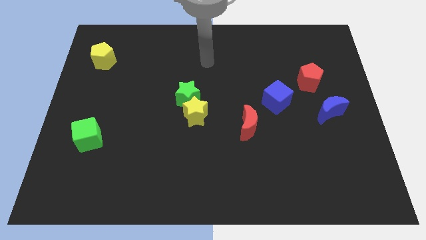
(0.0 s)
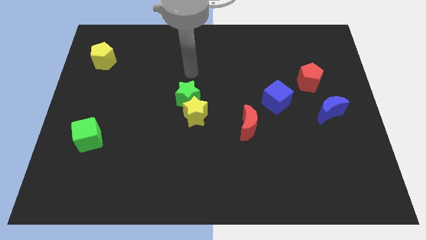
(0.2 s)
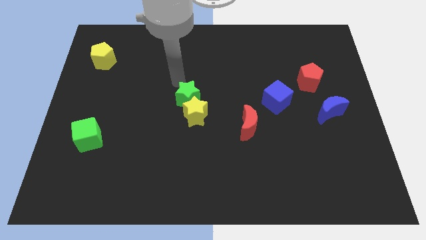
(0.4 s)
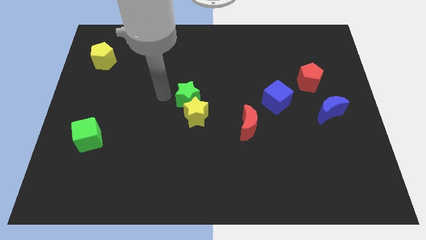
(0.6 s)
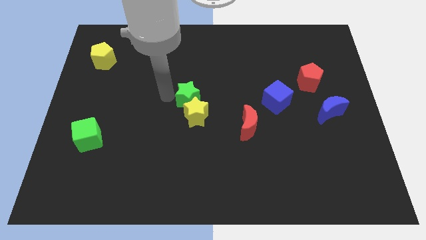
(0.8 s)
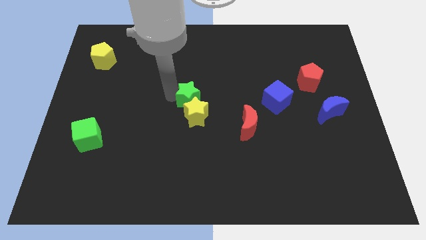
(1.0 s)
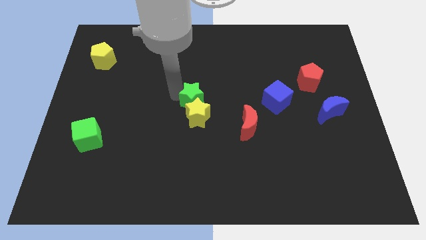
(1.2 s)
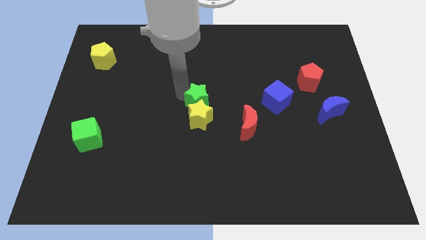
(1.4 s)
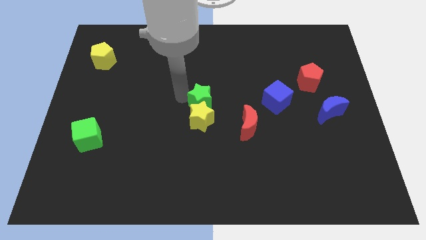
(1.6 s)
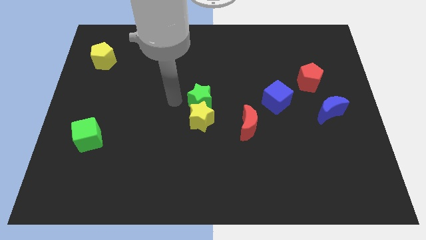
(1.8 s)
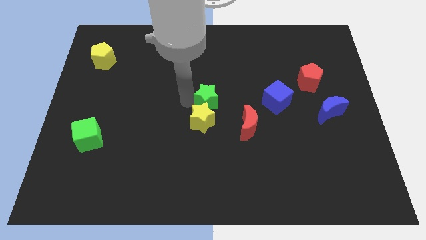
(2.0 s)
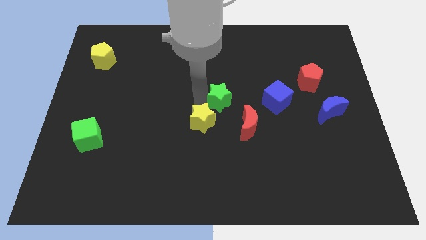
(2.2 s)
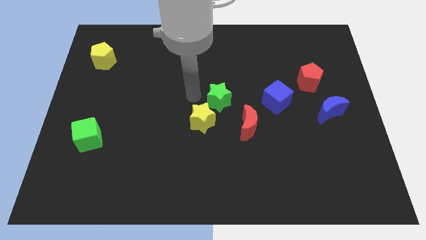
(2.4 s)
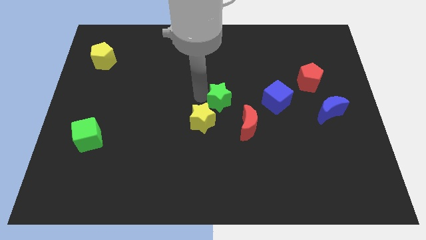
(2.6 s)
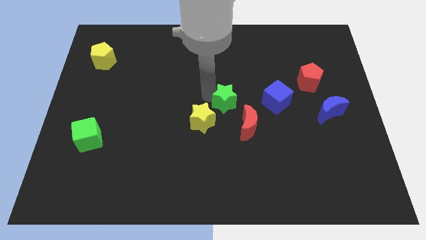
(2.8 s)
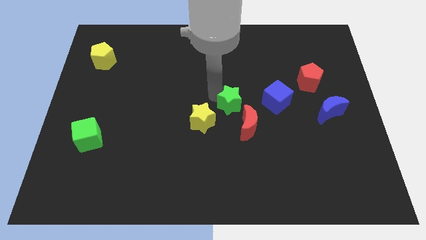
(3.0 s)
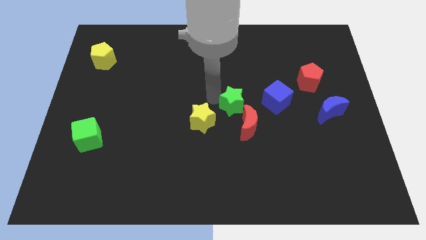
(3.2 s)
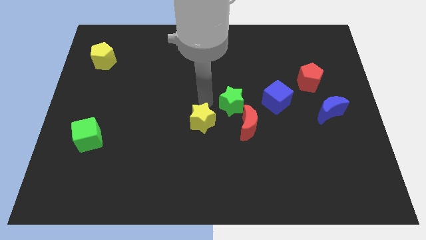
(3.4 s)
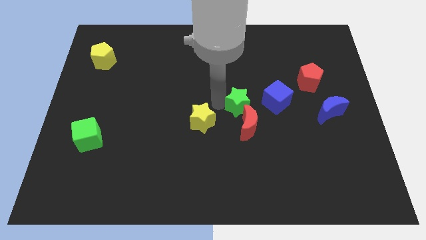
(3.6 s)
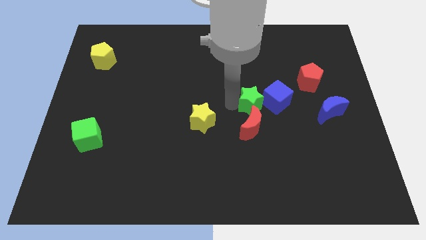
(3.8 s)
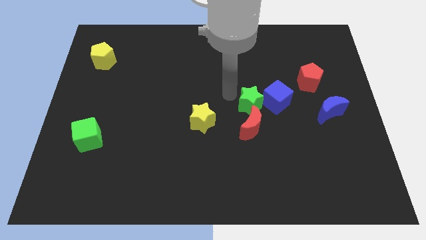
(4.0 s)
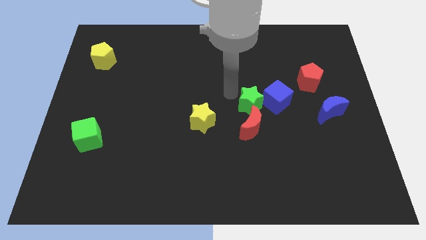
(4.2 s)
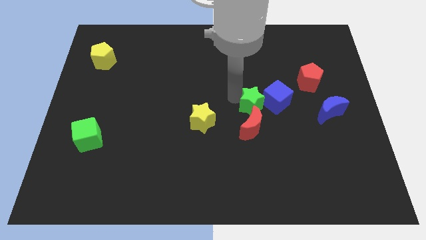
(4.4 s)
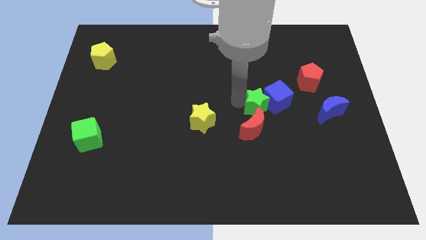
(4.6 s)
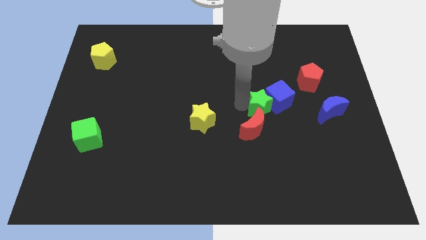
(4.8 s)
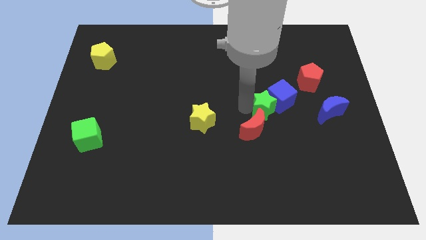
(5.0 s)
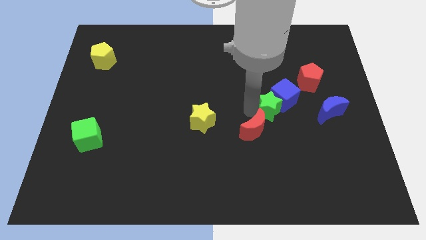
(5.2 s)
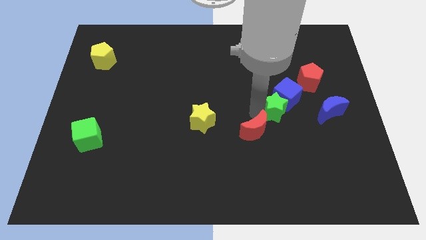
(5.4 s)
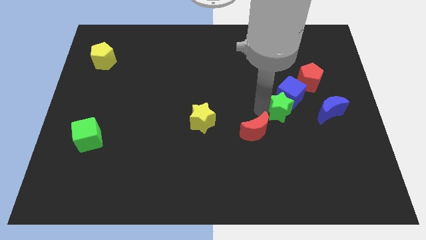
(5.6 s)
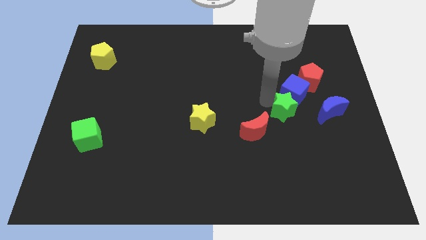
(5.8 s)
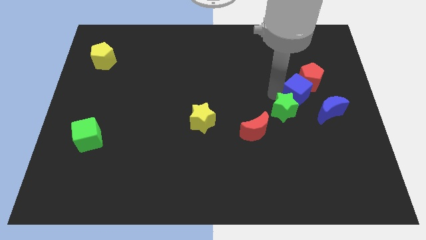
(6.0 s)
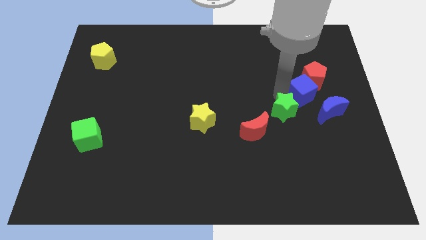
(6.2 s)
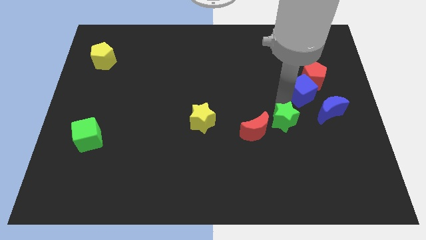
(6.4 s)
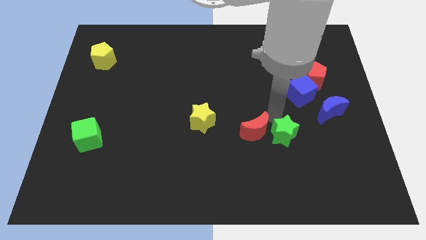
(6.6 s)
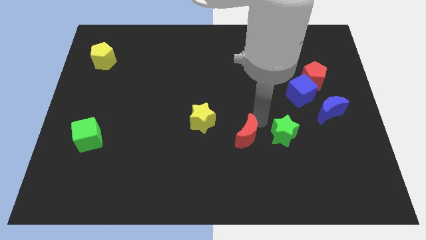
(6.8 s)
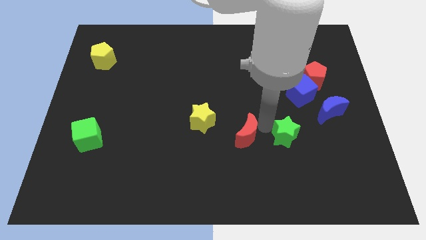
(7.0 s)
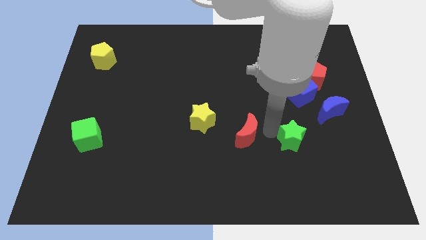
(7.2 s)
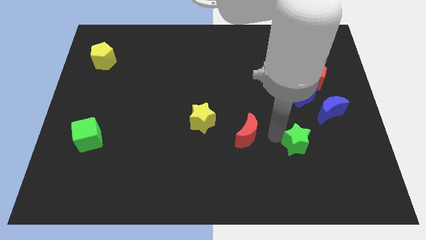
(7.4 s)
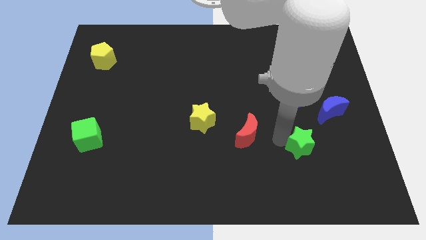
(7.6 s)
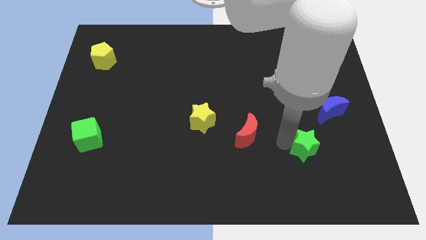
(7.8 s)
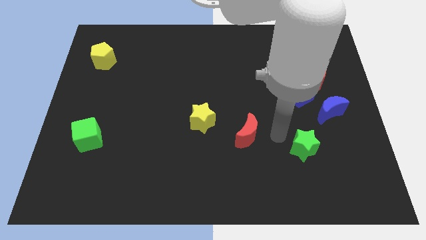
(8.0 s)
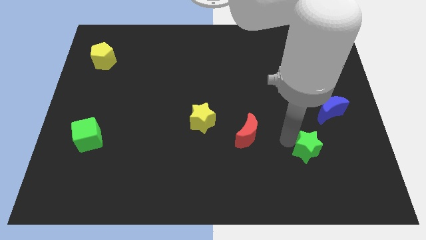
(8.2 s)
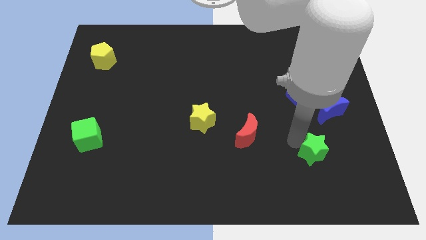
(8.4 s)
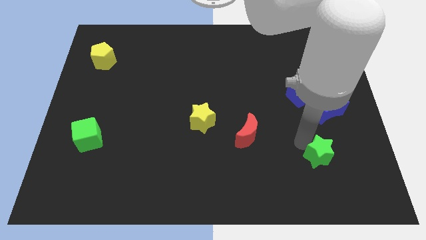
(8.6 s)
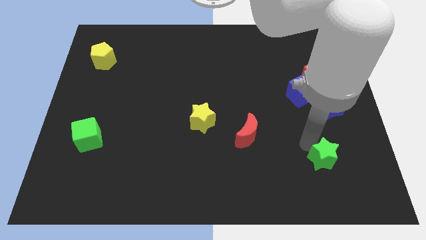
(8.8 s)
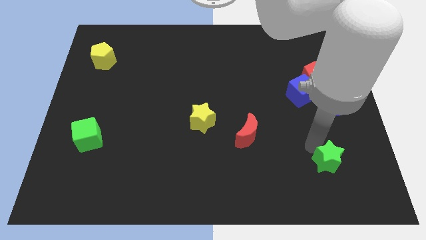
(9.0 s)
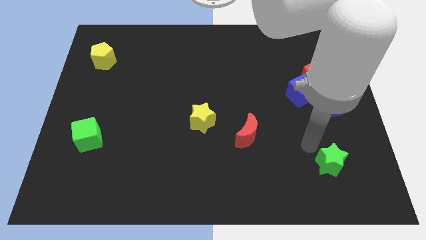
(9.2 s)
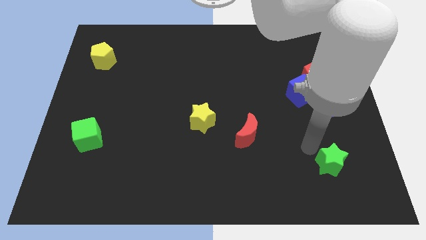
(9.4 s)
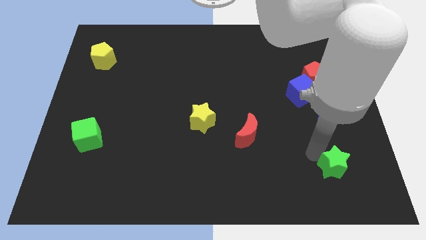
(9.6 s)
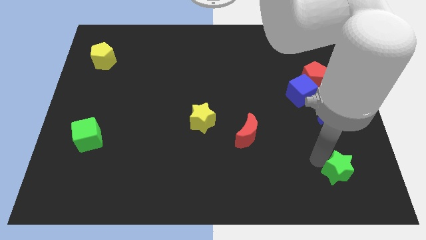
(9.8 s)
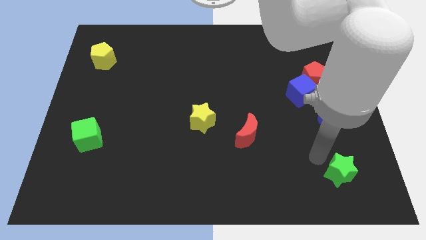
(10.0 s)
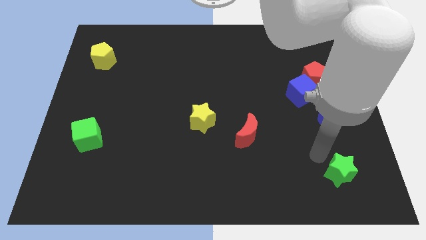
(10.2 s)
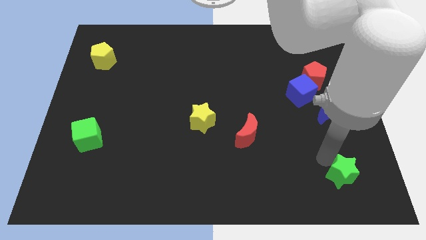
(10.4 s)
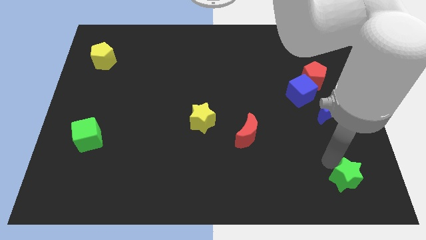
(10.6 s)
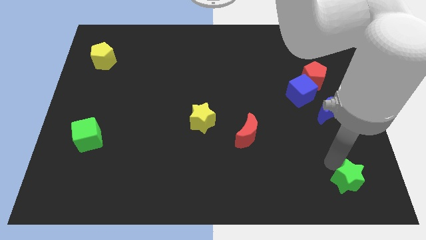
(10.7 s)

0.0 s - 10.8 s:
put the green star to the bottom right corner

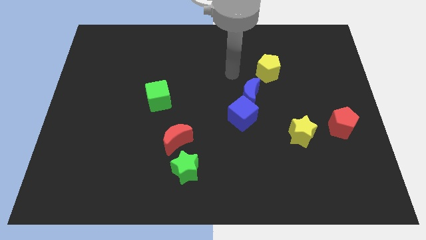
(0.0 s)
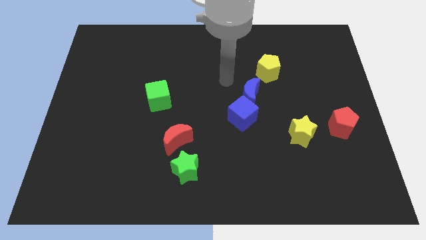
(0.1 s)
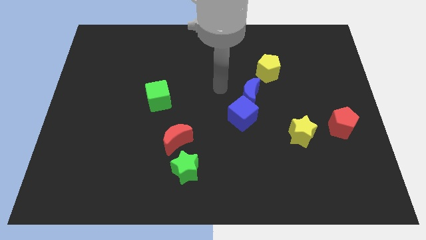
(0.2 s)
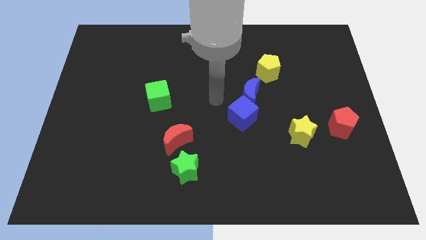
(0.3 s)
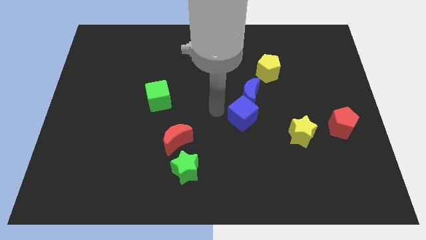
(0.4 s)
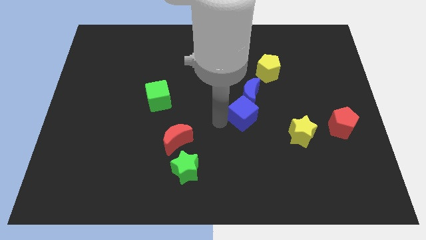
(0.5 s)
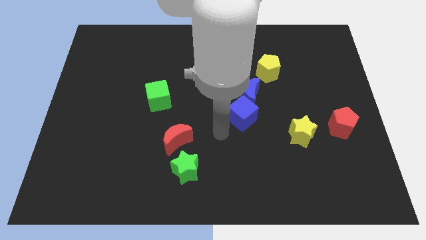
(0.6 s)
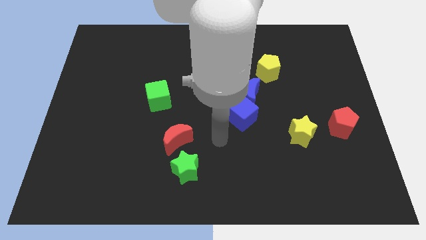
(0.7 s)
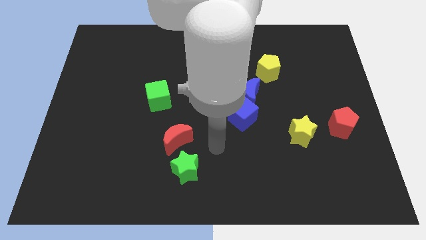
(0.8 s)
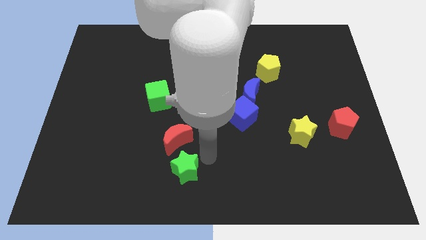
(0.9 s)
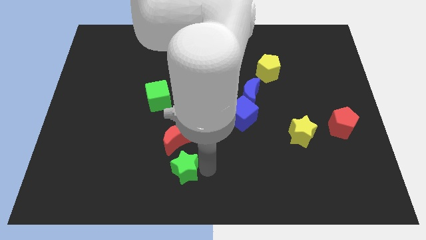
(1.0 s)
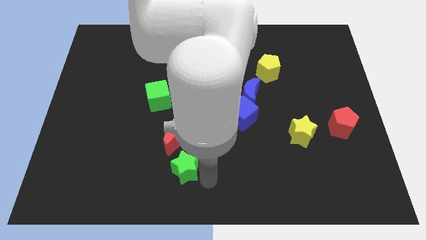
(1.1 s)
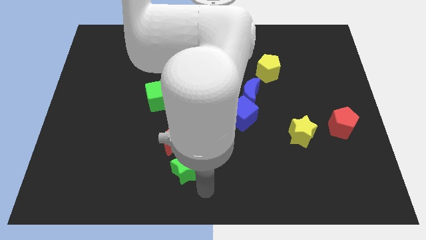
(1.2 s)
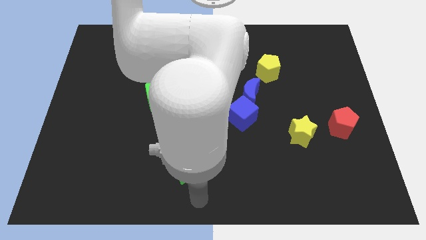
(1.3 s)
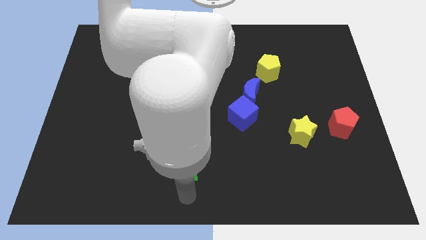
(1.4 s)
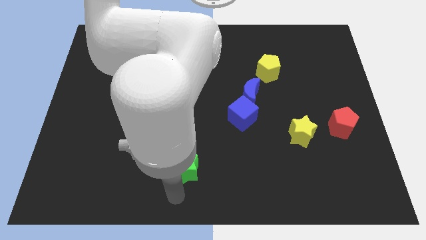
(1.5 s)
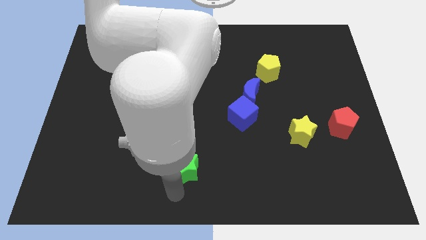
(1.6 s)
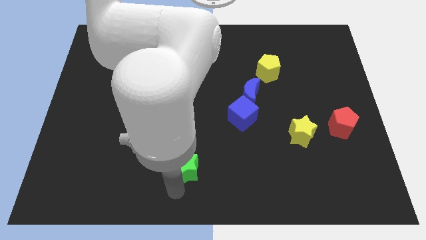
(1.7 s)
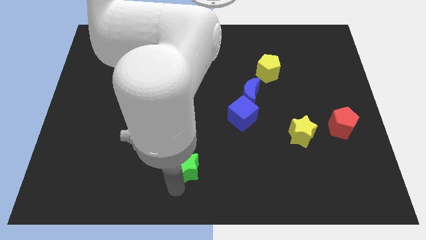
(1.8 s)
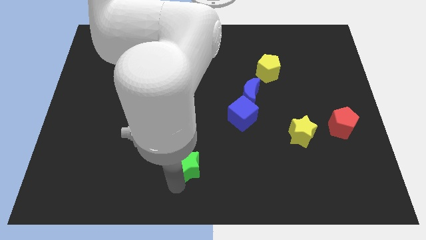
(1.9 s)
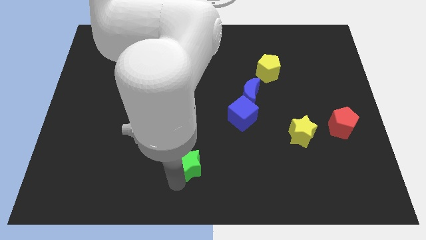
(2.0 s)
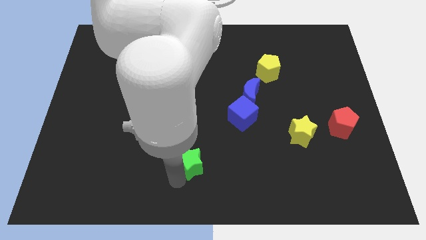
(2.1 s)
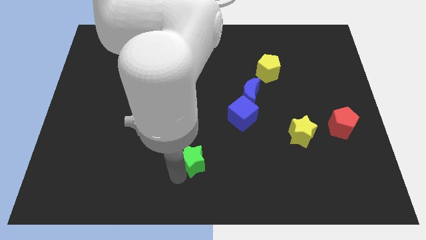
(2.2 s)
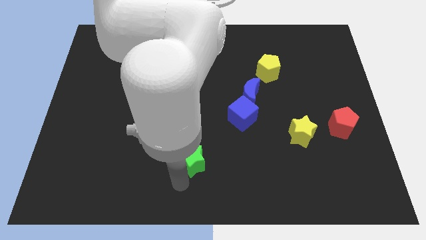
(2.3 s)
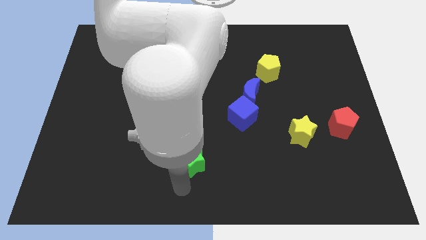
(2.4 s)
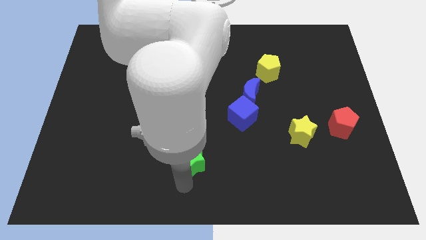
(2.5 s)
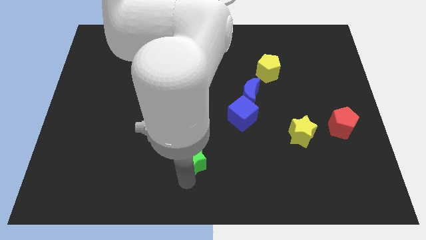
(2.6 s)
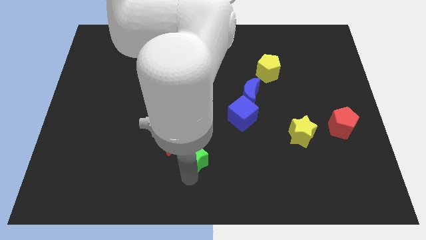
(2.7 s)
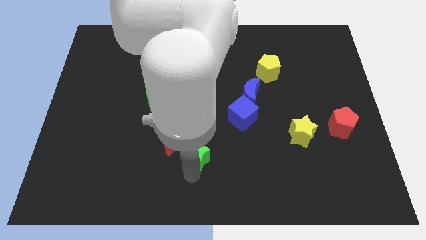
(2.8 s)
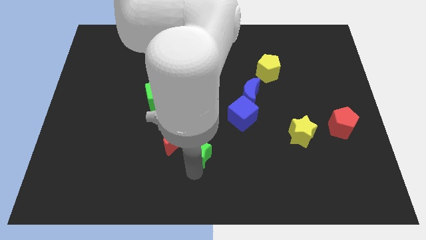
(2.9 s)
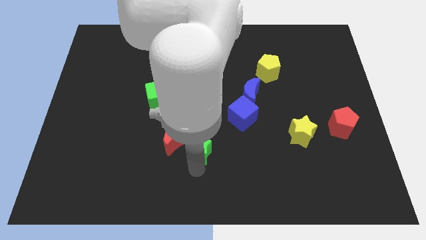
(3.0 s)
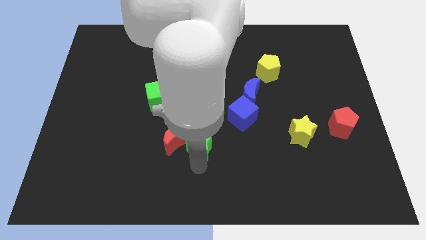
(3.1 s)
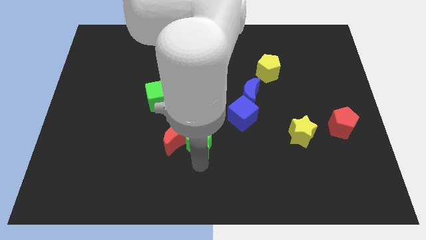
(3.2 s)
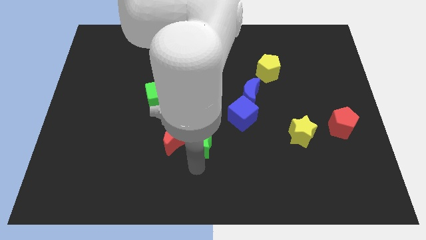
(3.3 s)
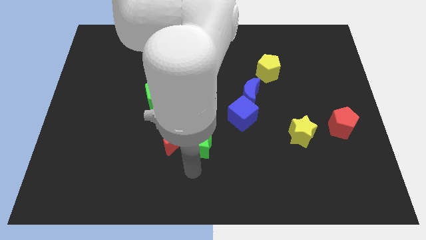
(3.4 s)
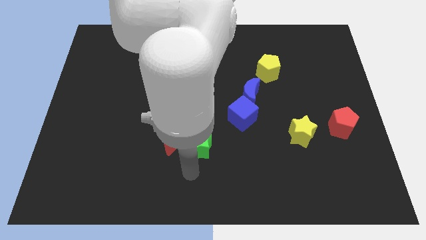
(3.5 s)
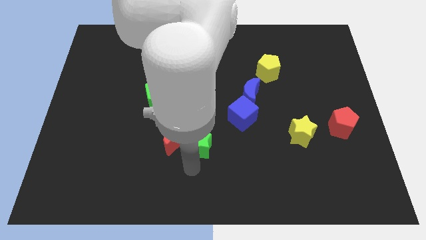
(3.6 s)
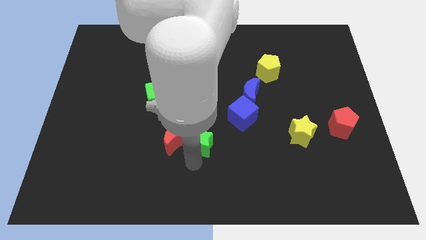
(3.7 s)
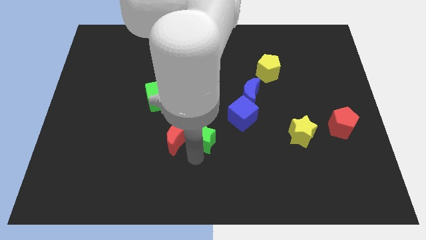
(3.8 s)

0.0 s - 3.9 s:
push the green star to the middle of the board
